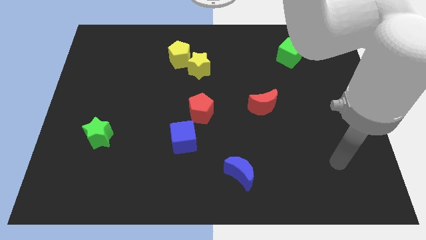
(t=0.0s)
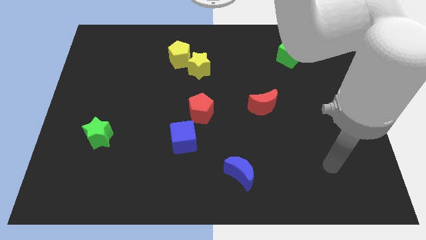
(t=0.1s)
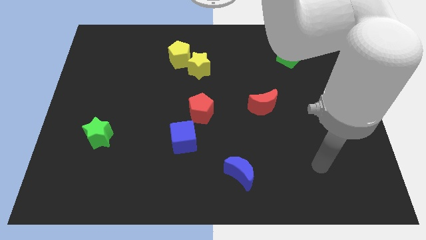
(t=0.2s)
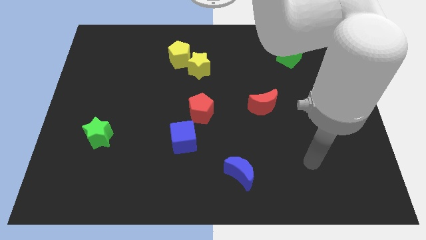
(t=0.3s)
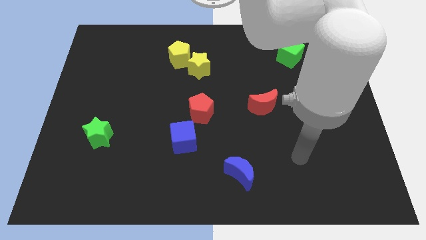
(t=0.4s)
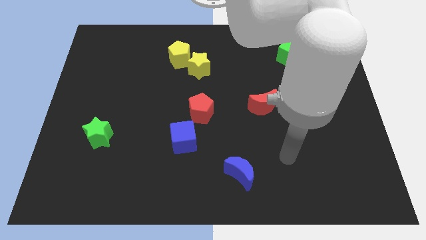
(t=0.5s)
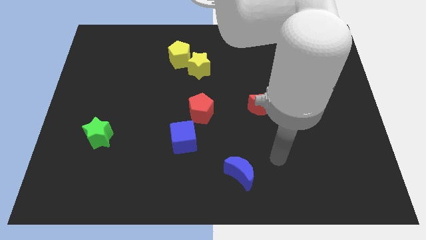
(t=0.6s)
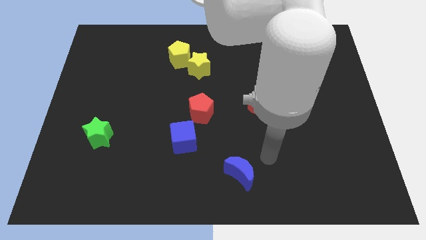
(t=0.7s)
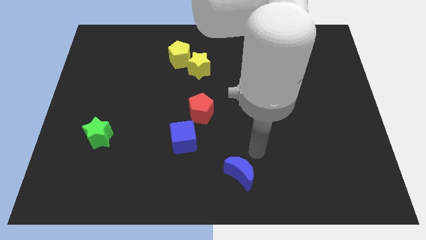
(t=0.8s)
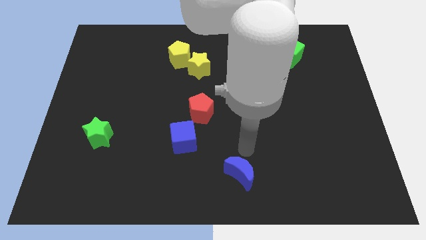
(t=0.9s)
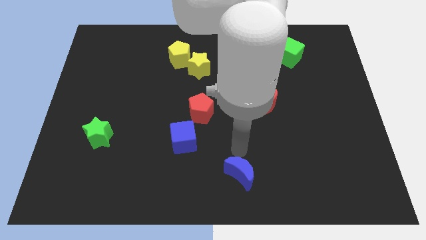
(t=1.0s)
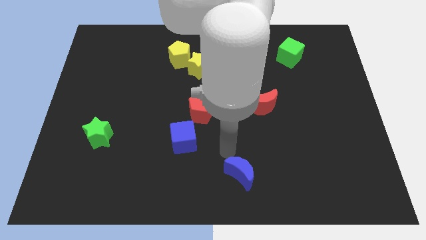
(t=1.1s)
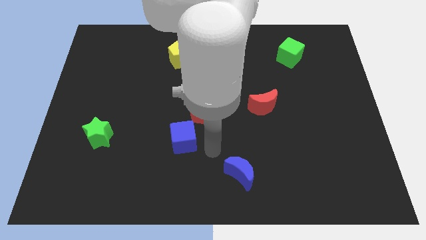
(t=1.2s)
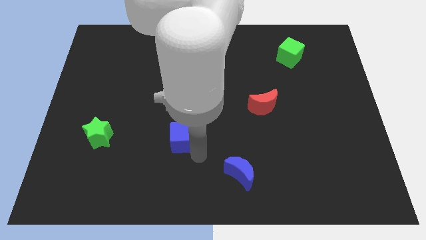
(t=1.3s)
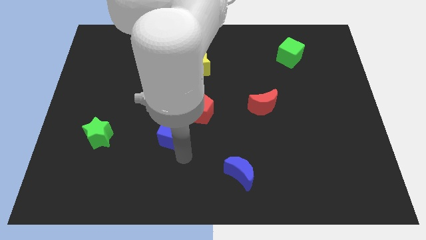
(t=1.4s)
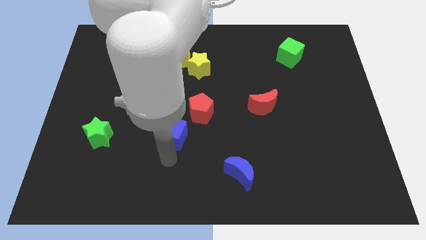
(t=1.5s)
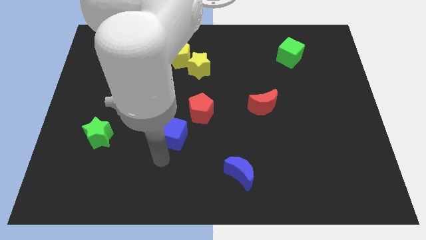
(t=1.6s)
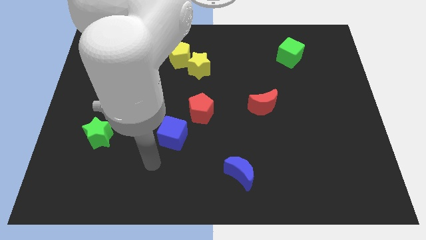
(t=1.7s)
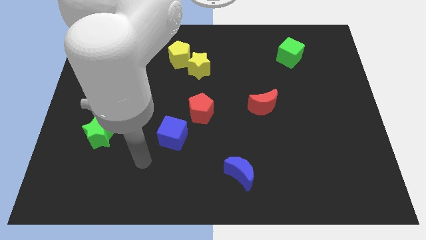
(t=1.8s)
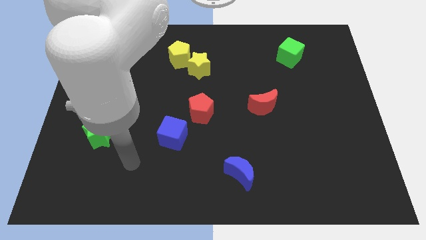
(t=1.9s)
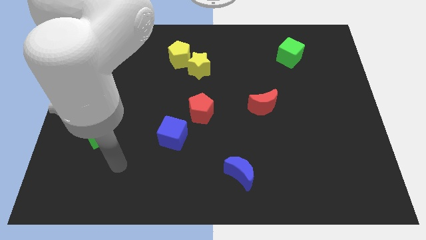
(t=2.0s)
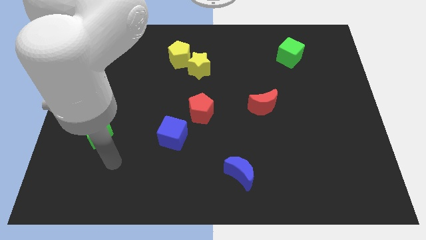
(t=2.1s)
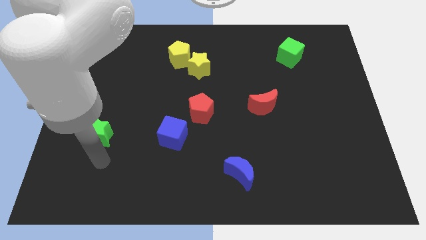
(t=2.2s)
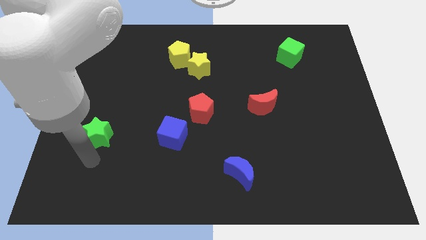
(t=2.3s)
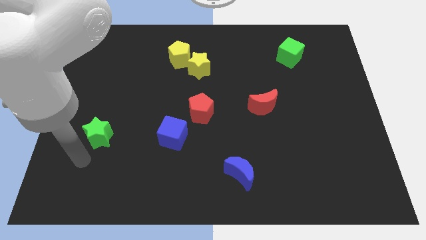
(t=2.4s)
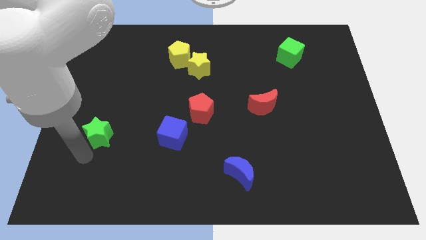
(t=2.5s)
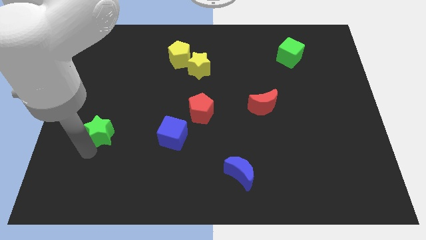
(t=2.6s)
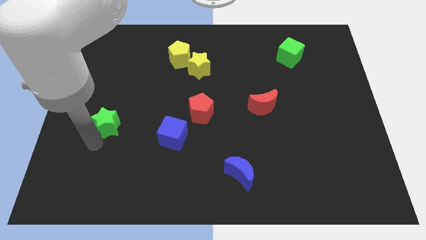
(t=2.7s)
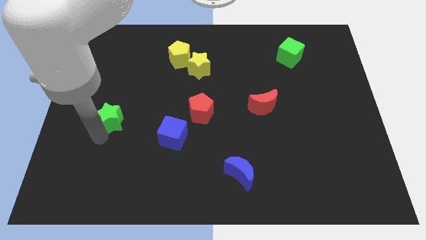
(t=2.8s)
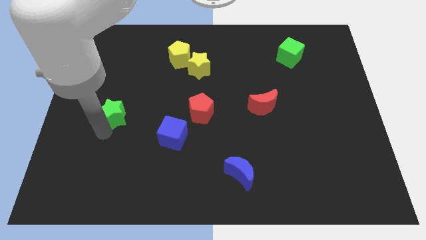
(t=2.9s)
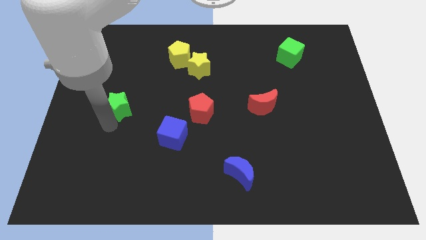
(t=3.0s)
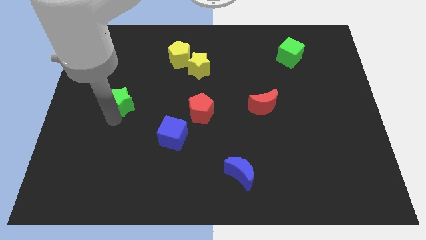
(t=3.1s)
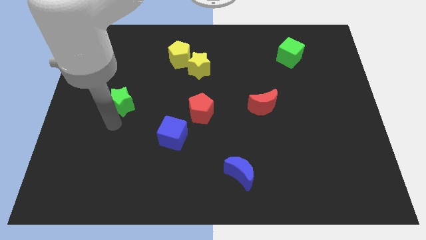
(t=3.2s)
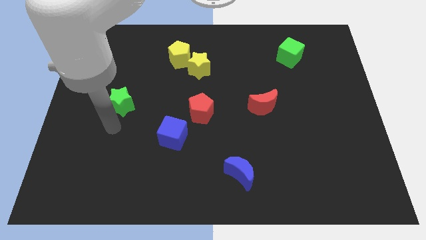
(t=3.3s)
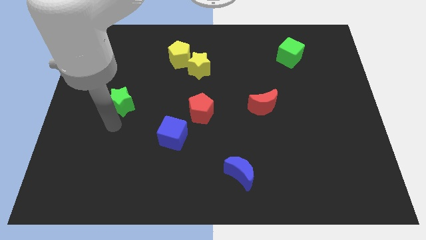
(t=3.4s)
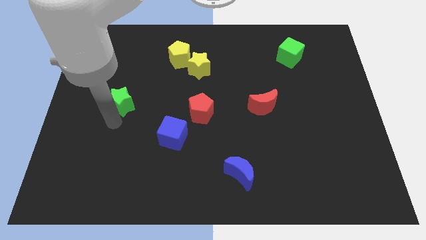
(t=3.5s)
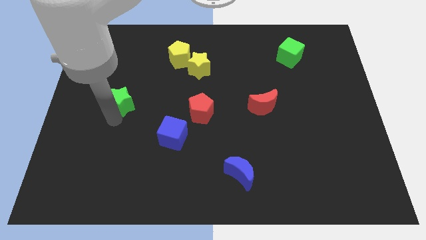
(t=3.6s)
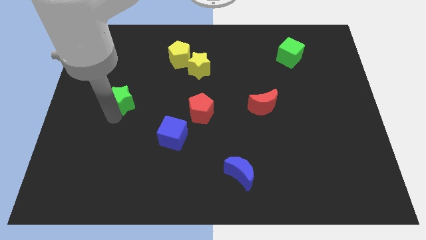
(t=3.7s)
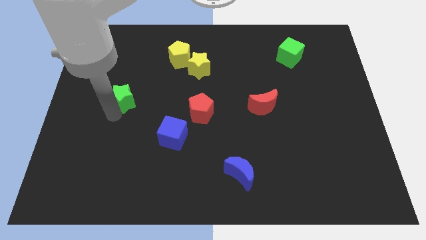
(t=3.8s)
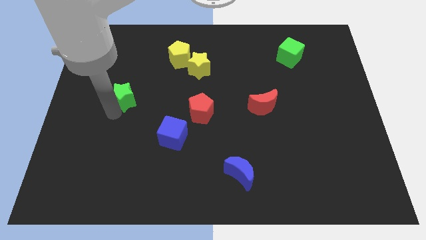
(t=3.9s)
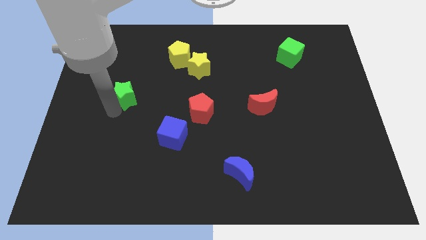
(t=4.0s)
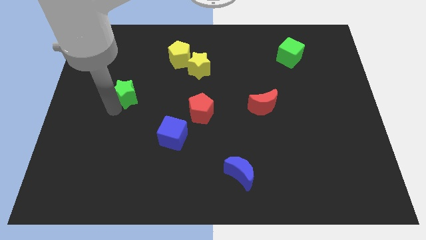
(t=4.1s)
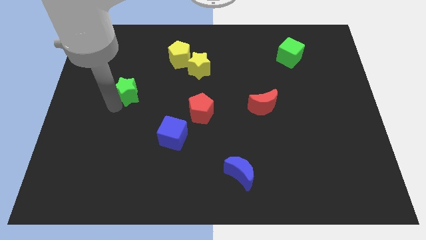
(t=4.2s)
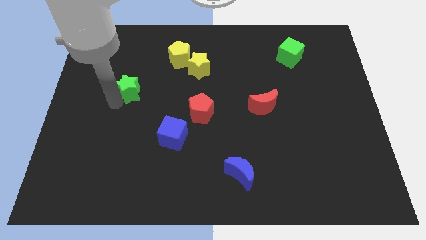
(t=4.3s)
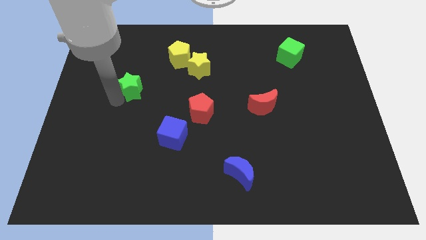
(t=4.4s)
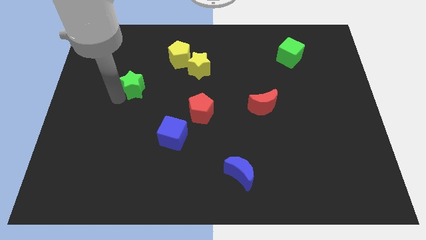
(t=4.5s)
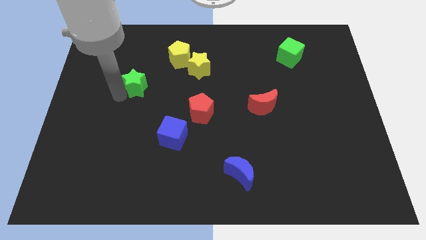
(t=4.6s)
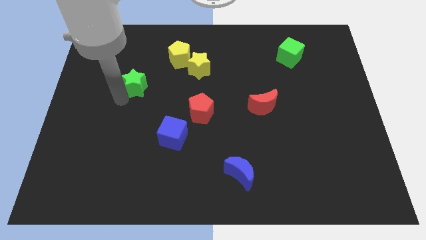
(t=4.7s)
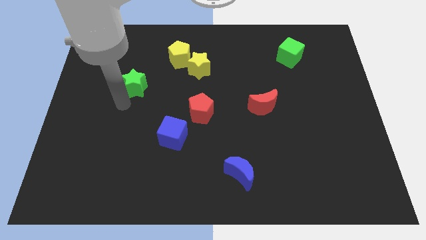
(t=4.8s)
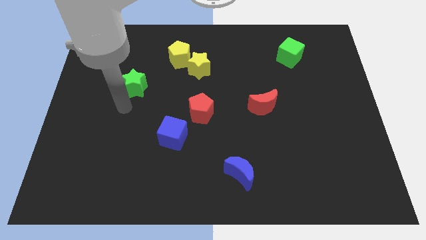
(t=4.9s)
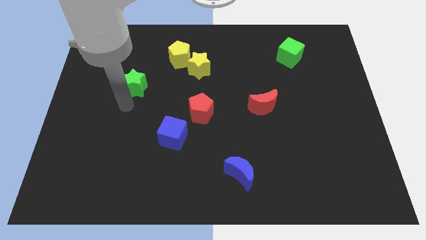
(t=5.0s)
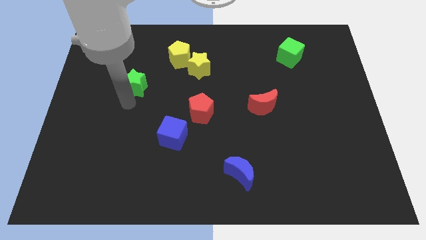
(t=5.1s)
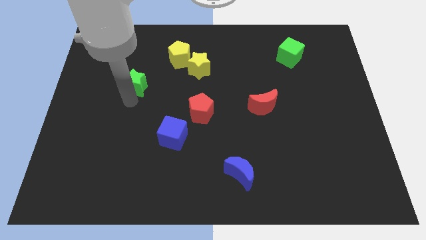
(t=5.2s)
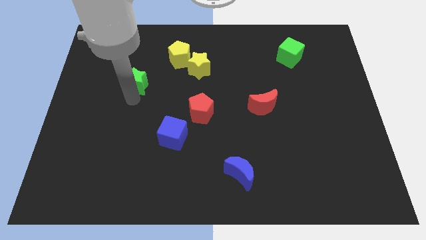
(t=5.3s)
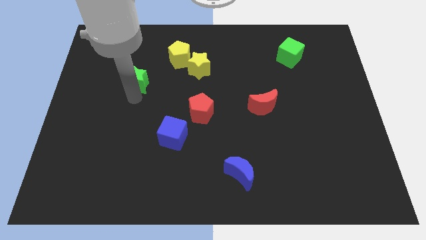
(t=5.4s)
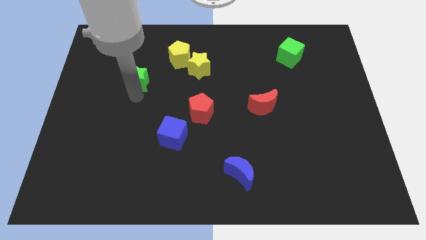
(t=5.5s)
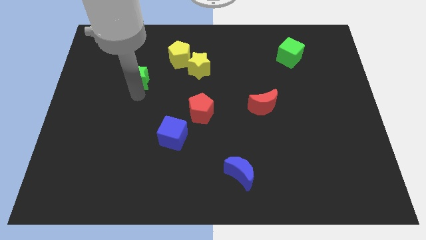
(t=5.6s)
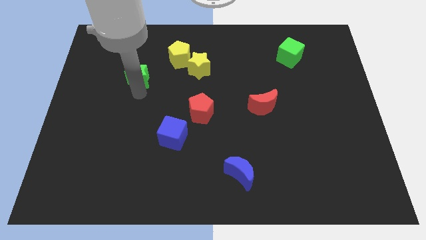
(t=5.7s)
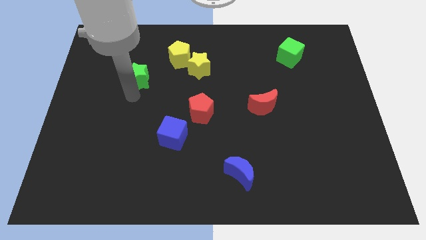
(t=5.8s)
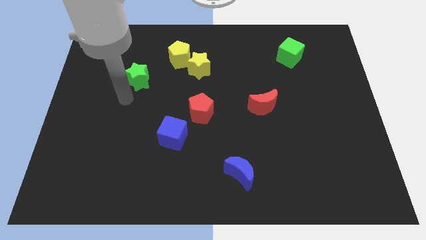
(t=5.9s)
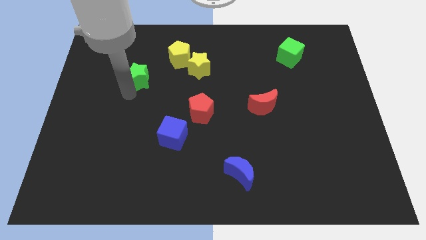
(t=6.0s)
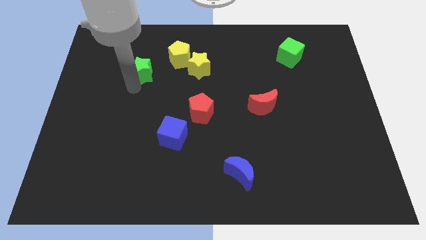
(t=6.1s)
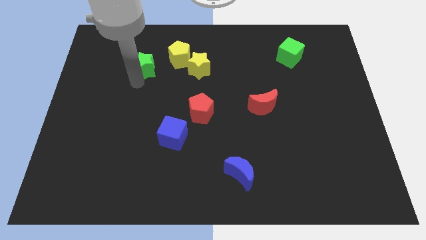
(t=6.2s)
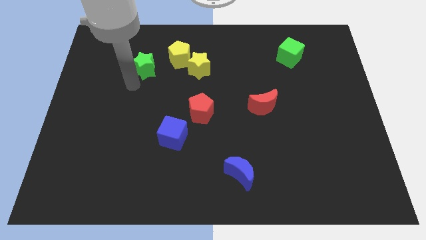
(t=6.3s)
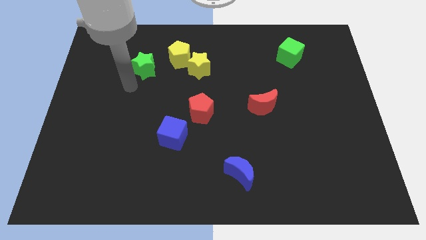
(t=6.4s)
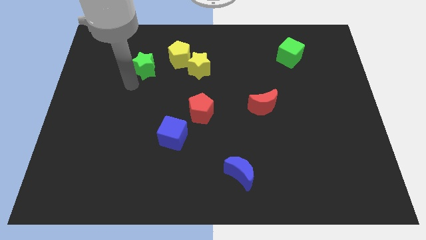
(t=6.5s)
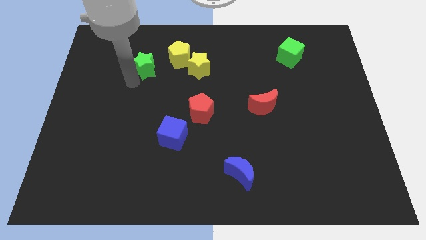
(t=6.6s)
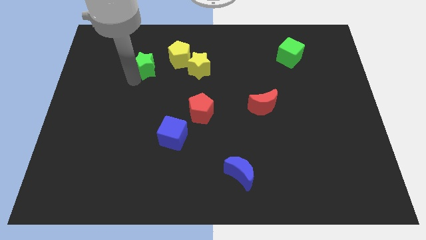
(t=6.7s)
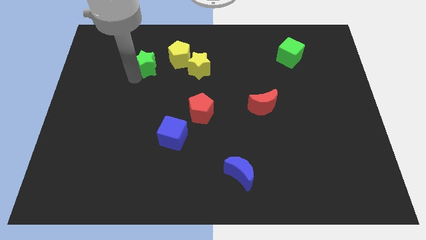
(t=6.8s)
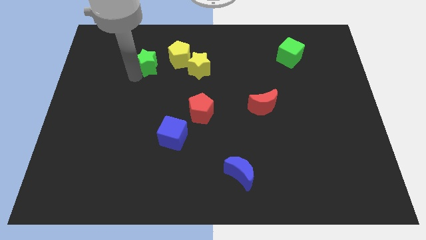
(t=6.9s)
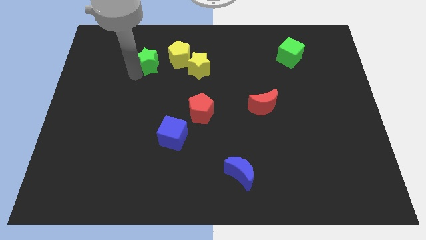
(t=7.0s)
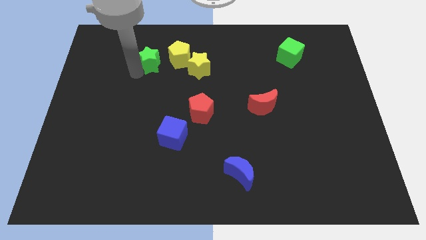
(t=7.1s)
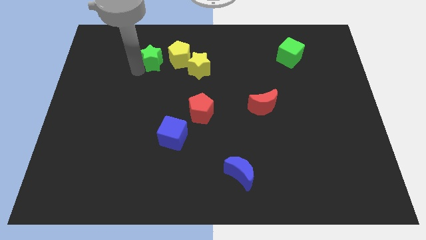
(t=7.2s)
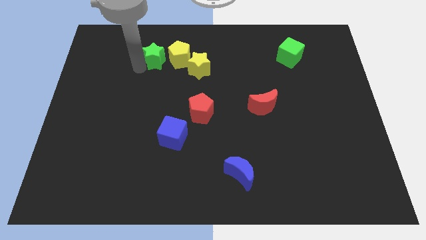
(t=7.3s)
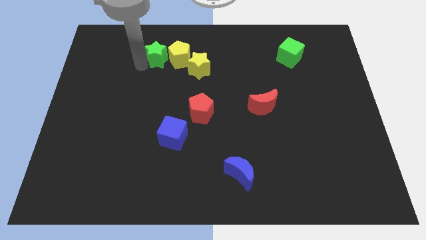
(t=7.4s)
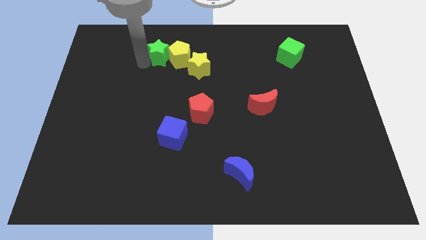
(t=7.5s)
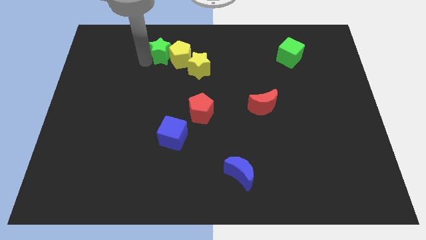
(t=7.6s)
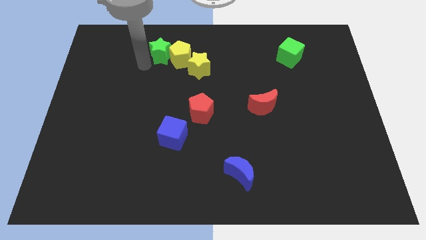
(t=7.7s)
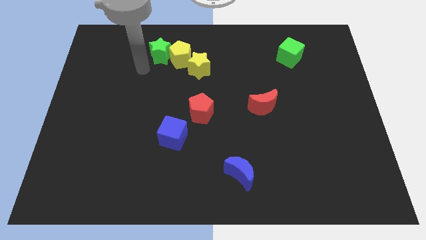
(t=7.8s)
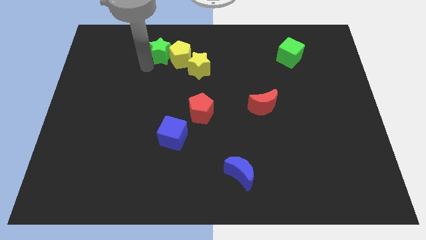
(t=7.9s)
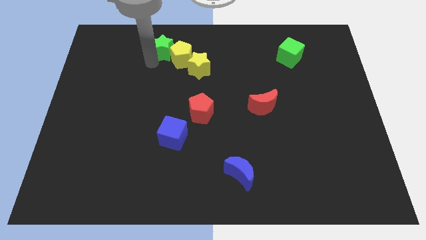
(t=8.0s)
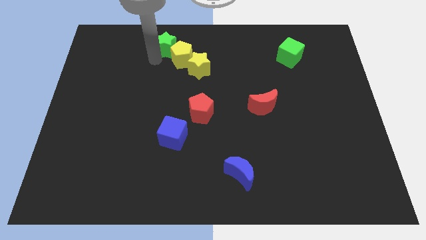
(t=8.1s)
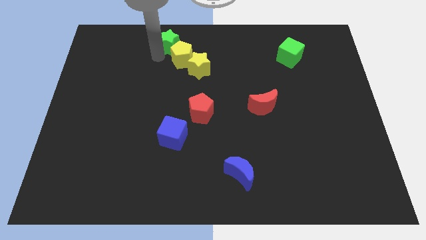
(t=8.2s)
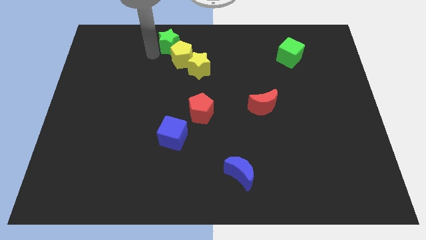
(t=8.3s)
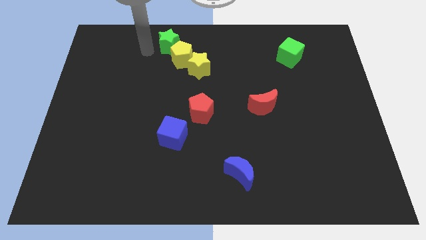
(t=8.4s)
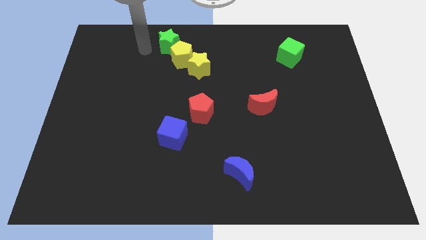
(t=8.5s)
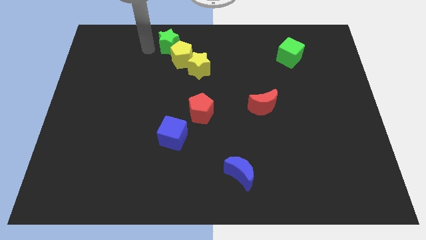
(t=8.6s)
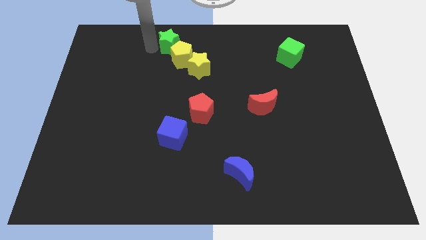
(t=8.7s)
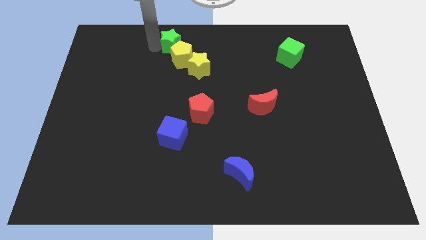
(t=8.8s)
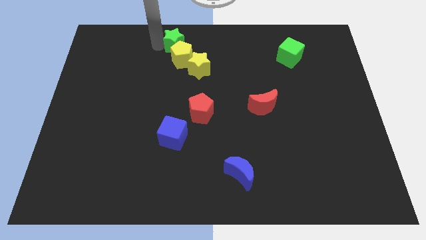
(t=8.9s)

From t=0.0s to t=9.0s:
put the green star to the top
